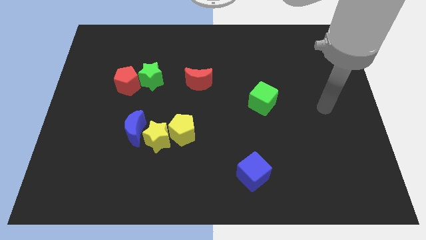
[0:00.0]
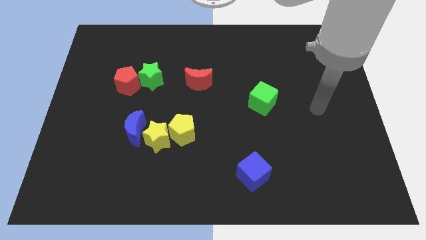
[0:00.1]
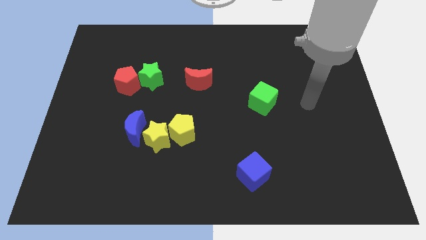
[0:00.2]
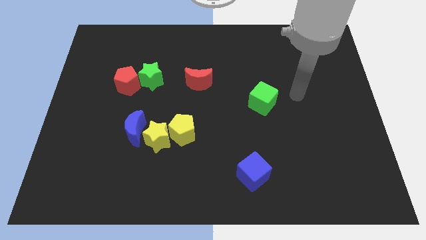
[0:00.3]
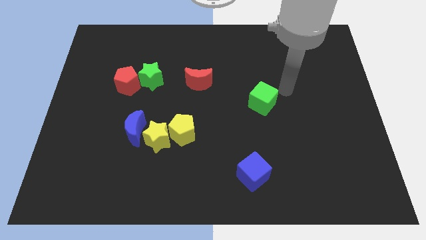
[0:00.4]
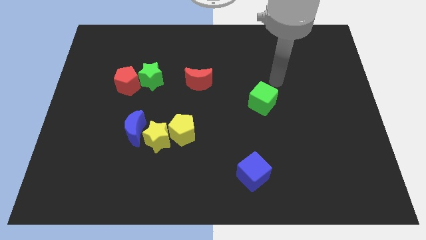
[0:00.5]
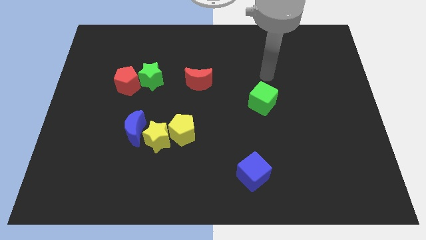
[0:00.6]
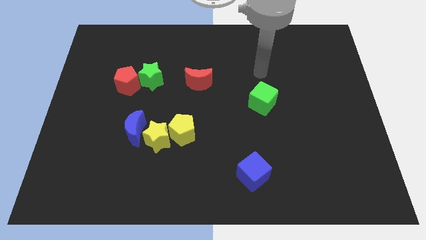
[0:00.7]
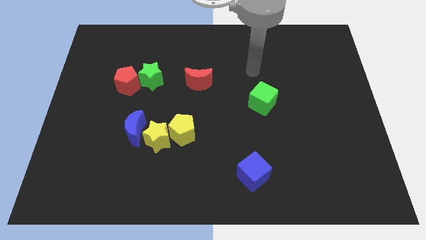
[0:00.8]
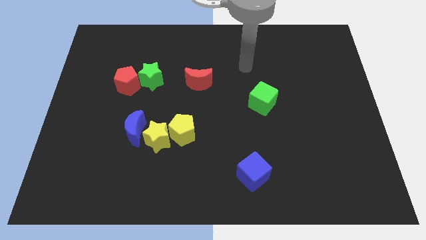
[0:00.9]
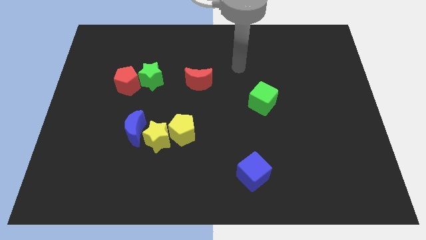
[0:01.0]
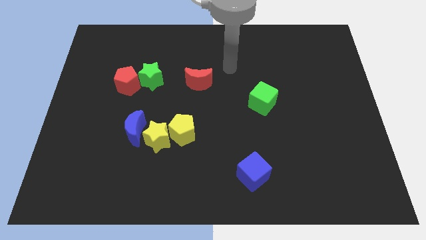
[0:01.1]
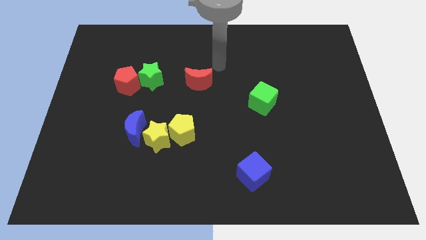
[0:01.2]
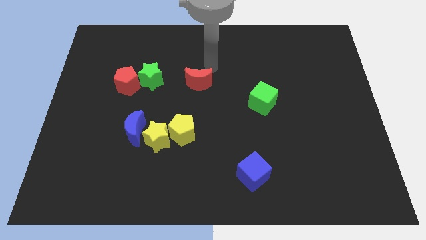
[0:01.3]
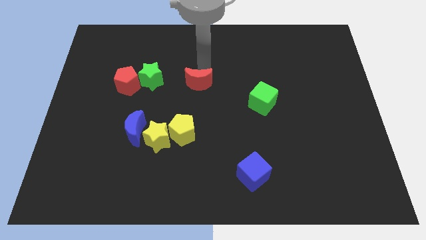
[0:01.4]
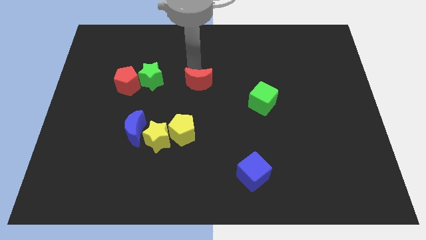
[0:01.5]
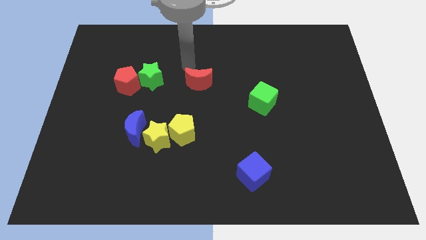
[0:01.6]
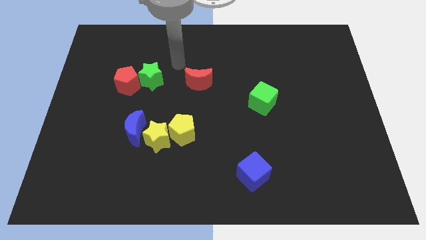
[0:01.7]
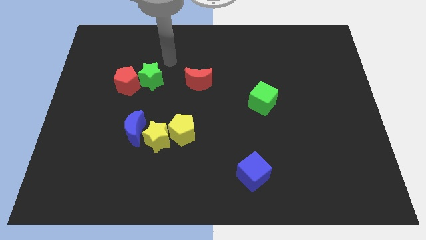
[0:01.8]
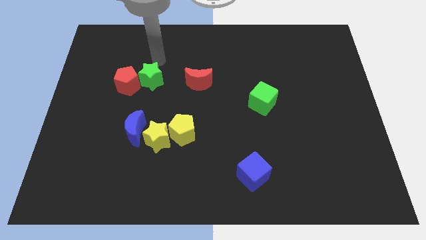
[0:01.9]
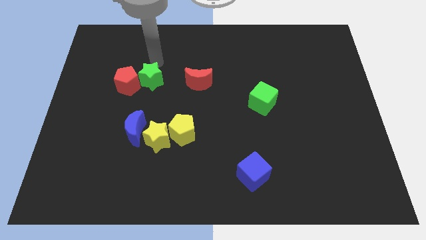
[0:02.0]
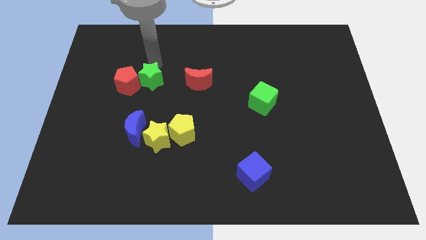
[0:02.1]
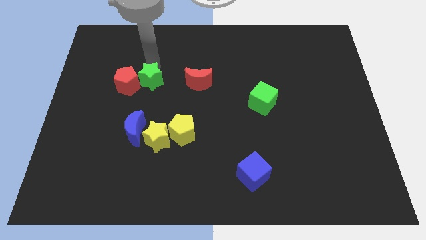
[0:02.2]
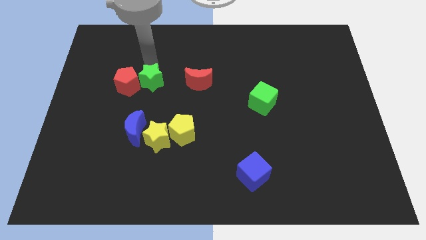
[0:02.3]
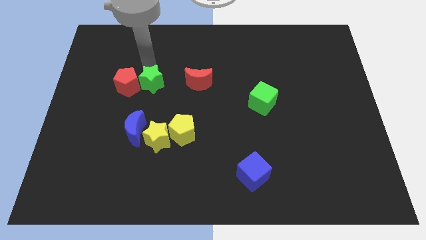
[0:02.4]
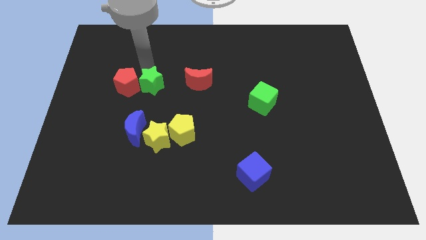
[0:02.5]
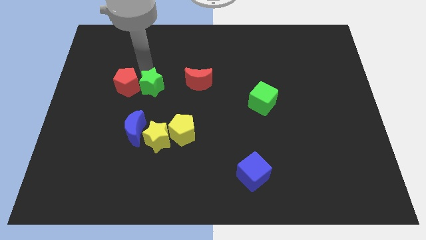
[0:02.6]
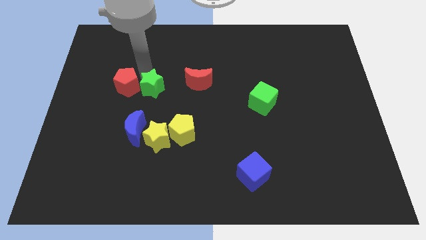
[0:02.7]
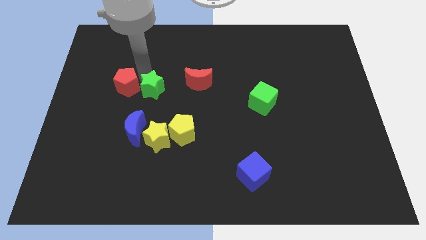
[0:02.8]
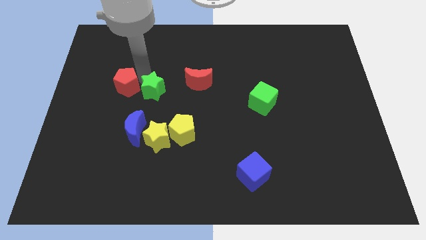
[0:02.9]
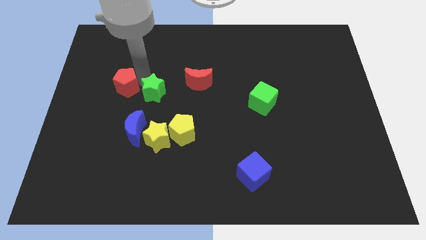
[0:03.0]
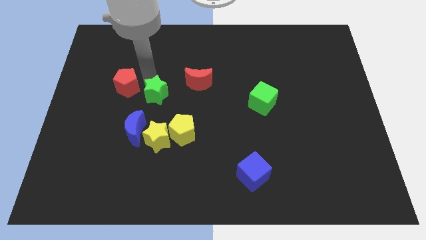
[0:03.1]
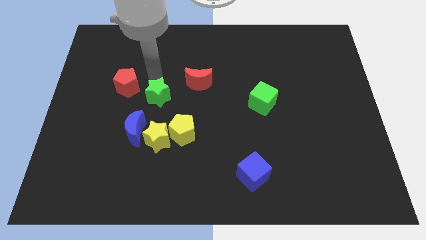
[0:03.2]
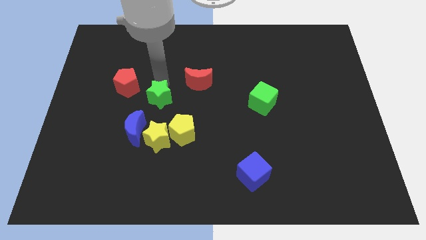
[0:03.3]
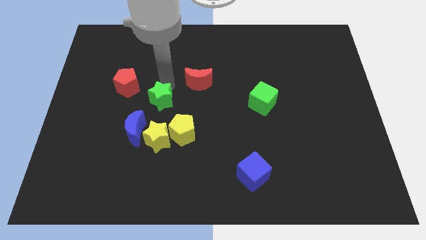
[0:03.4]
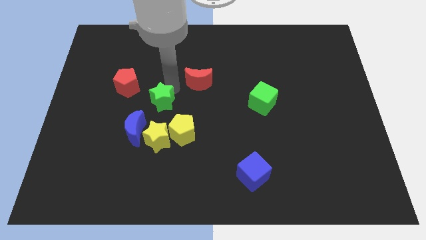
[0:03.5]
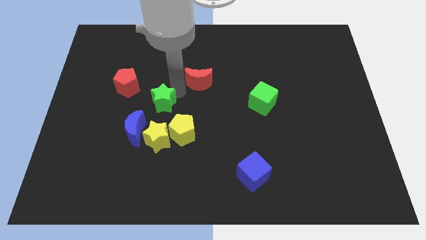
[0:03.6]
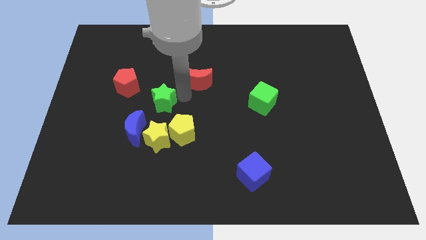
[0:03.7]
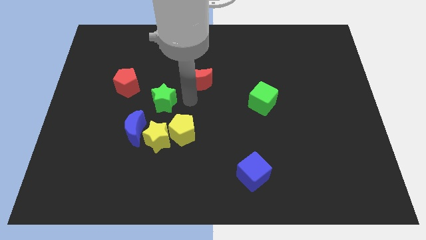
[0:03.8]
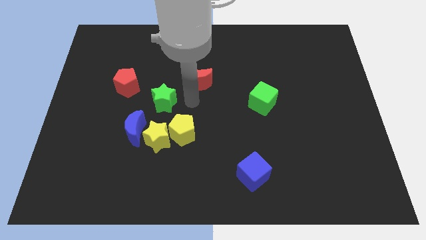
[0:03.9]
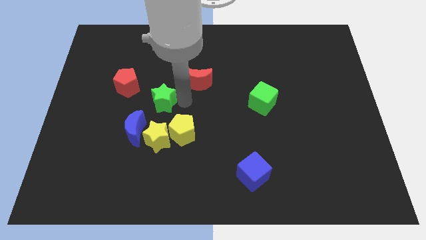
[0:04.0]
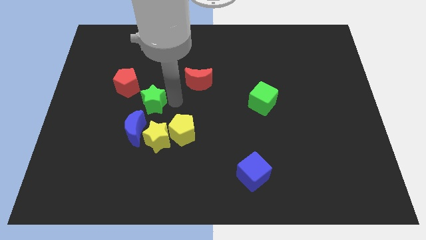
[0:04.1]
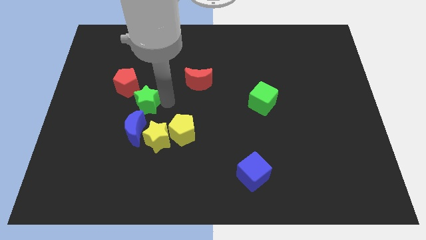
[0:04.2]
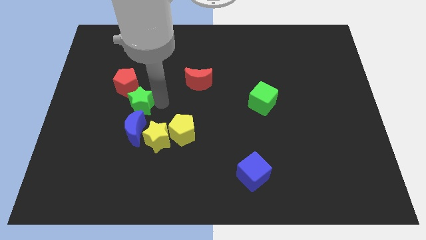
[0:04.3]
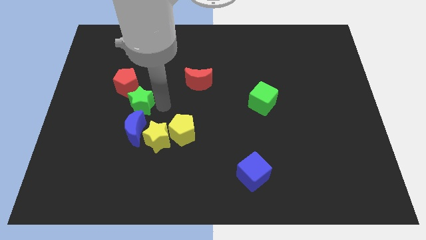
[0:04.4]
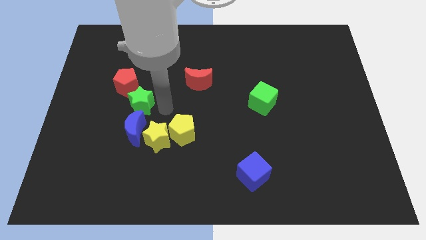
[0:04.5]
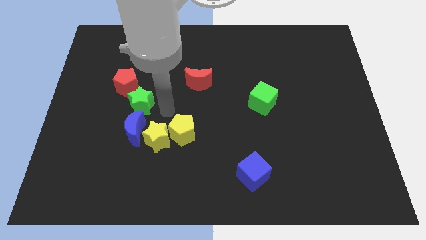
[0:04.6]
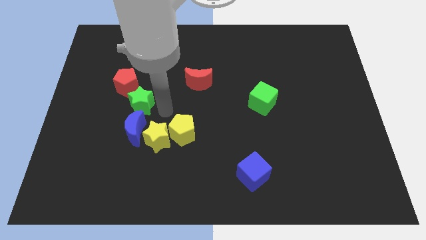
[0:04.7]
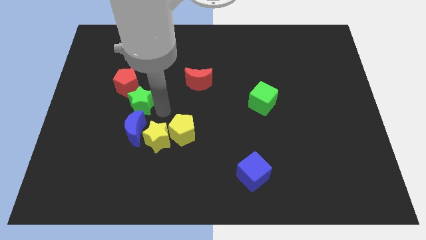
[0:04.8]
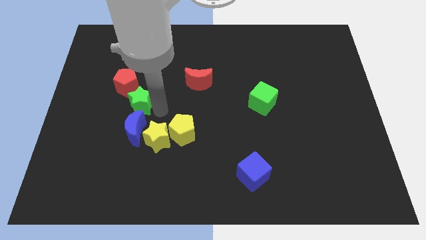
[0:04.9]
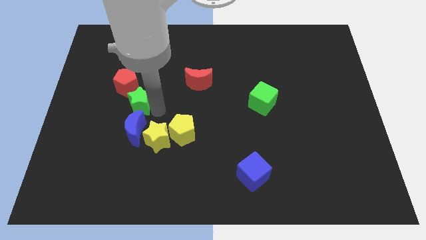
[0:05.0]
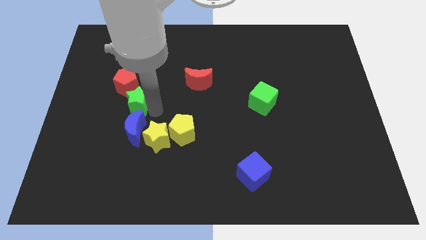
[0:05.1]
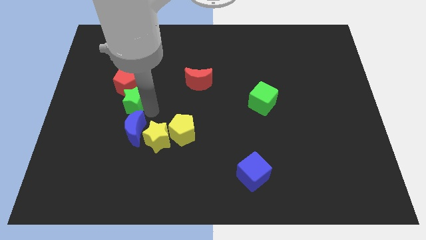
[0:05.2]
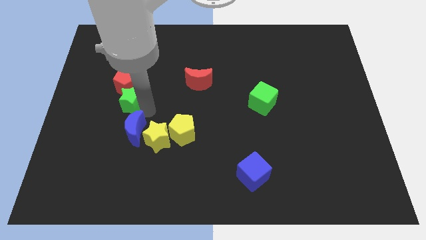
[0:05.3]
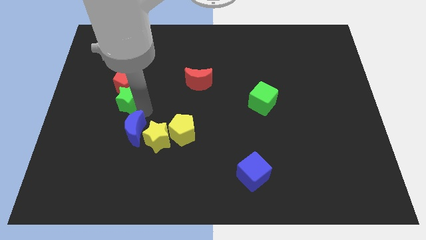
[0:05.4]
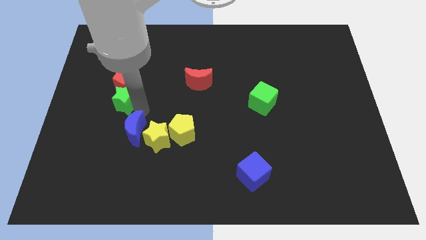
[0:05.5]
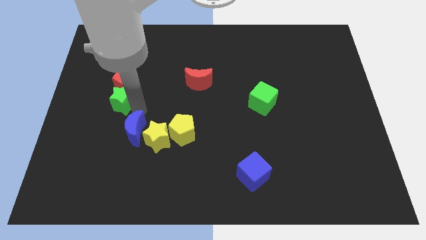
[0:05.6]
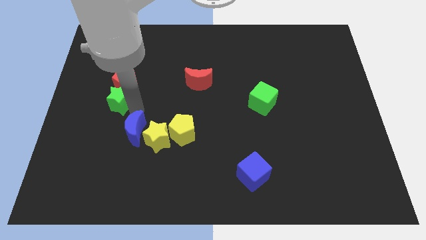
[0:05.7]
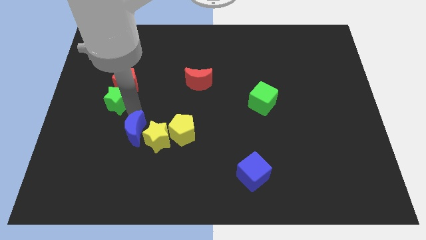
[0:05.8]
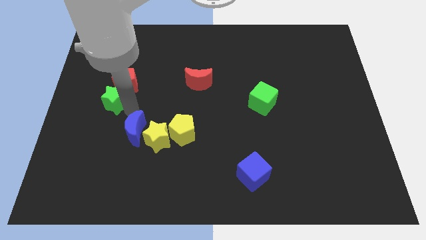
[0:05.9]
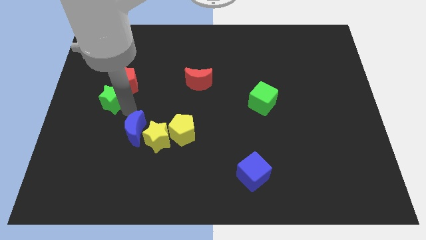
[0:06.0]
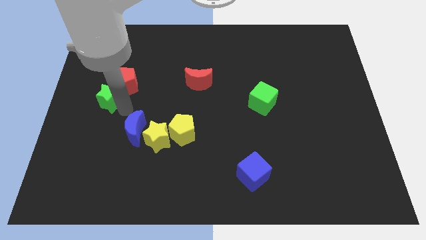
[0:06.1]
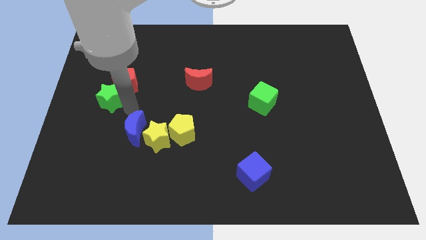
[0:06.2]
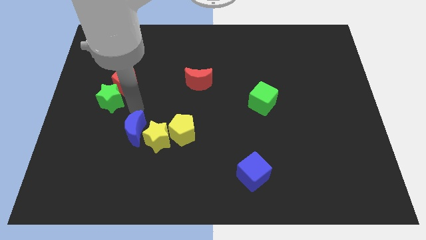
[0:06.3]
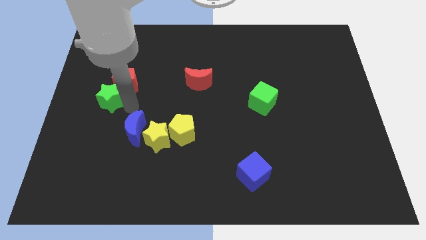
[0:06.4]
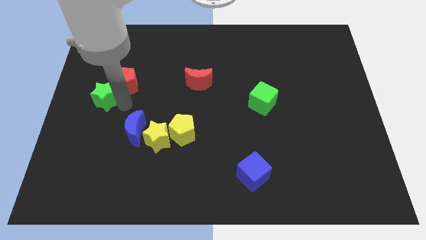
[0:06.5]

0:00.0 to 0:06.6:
push the green star to the left side
